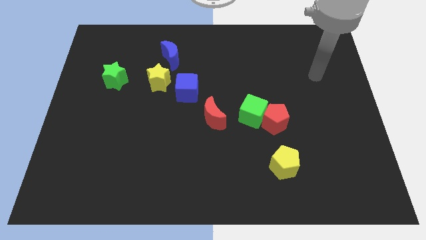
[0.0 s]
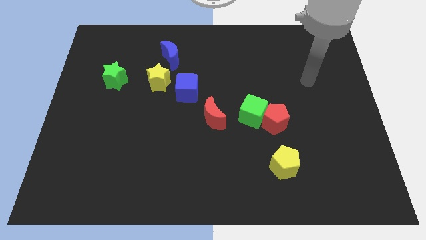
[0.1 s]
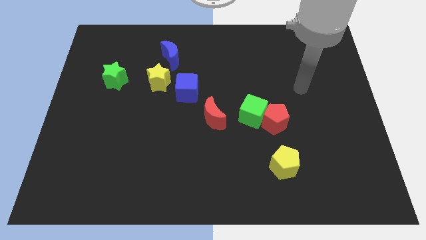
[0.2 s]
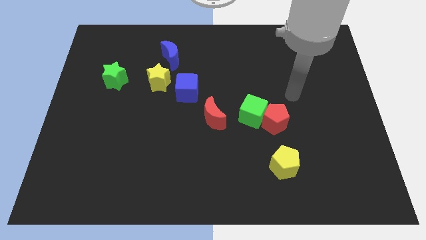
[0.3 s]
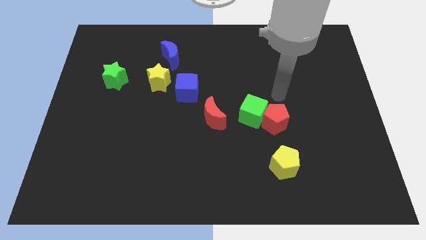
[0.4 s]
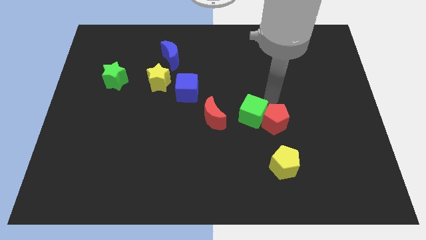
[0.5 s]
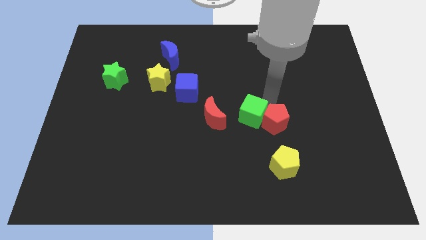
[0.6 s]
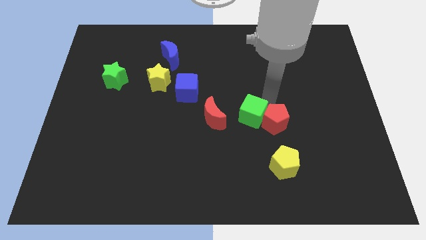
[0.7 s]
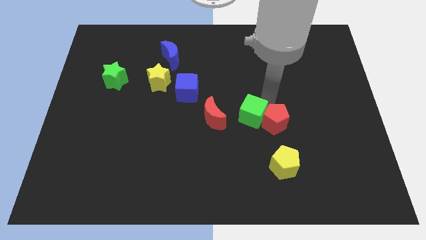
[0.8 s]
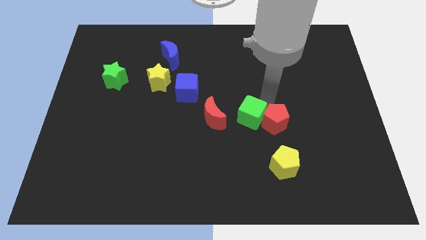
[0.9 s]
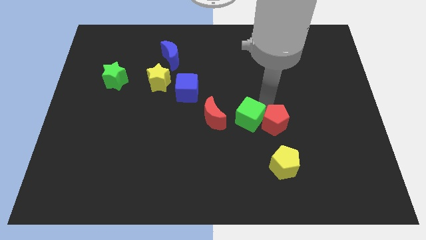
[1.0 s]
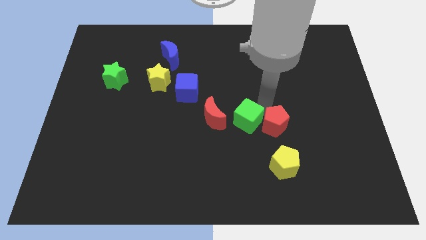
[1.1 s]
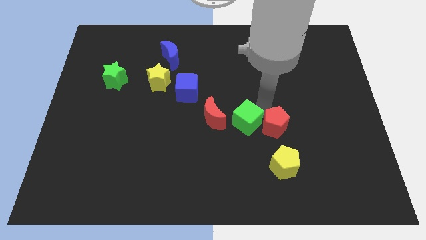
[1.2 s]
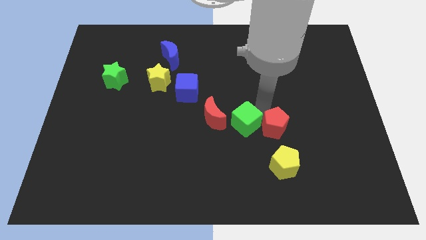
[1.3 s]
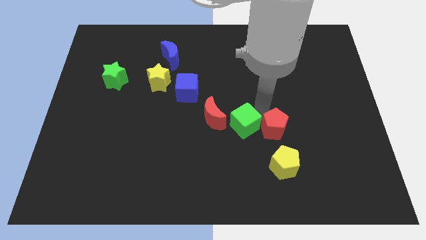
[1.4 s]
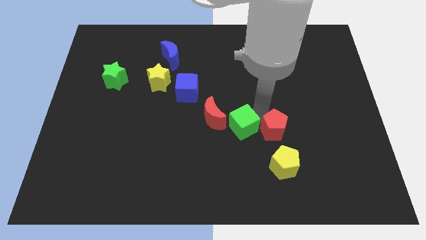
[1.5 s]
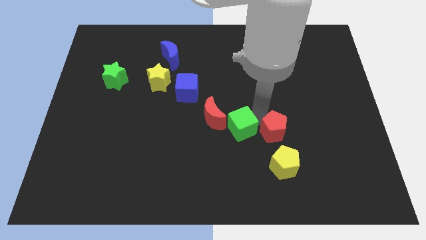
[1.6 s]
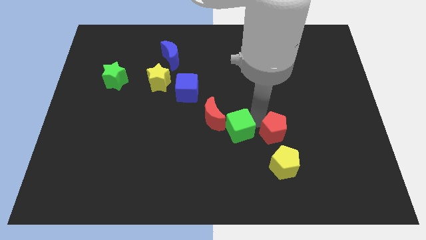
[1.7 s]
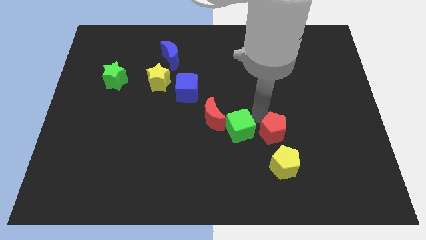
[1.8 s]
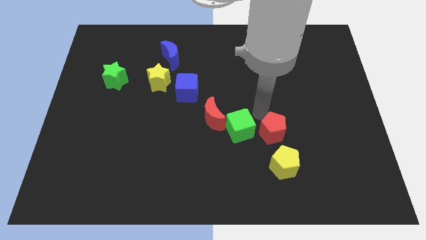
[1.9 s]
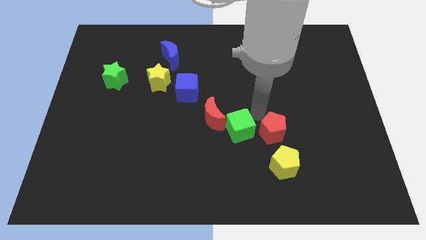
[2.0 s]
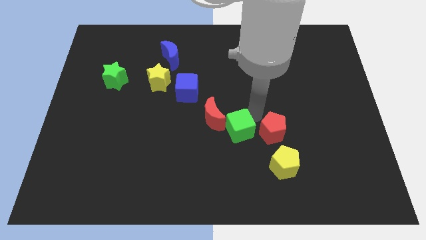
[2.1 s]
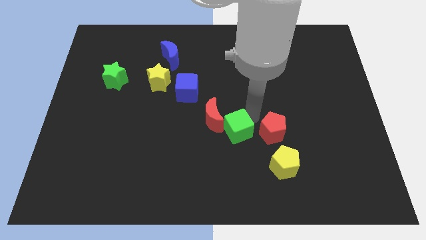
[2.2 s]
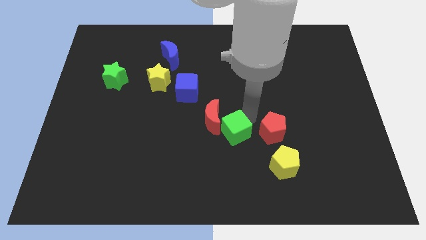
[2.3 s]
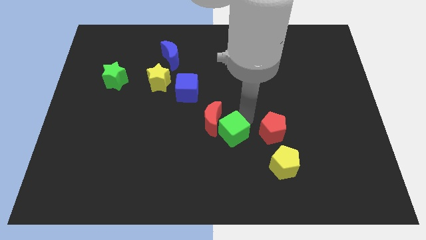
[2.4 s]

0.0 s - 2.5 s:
slide the green cube a bit down and then left

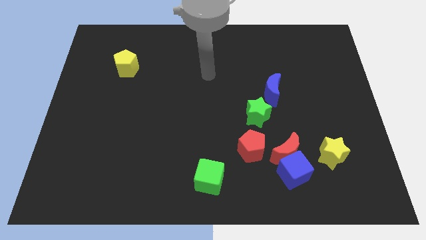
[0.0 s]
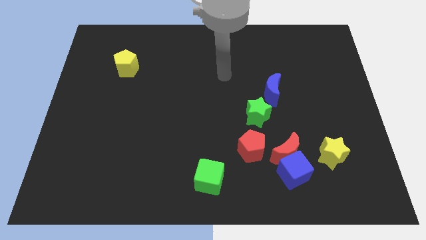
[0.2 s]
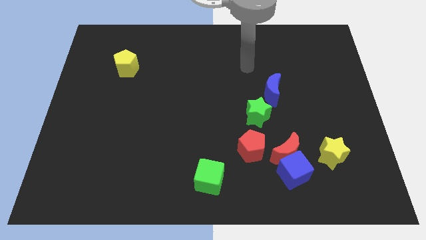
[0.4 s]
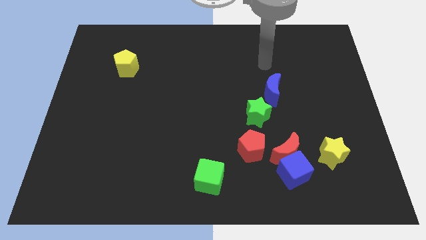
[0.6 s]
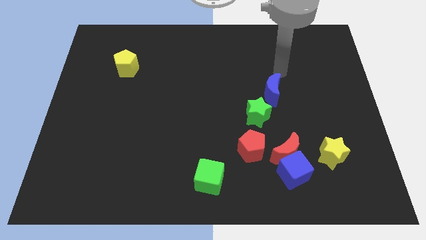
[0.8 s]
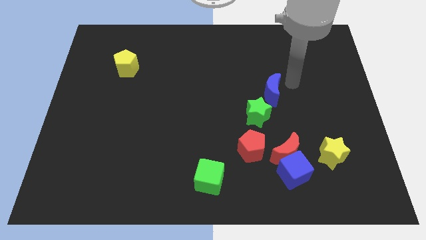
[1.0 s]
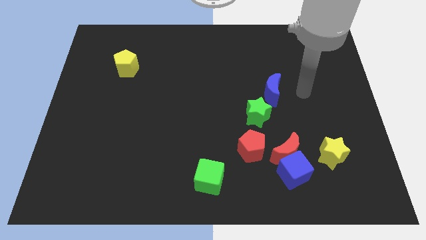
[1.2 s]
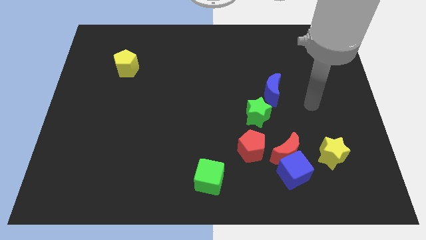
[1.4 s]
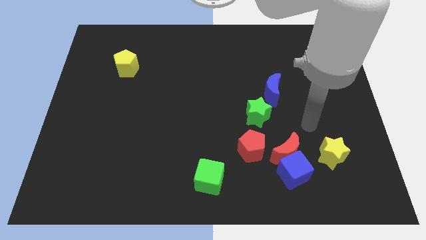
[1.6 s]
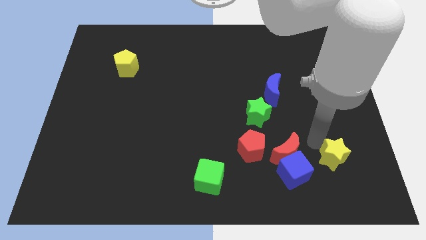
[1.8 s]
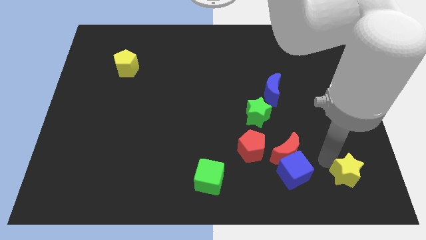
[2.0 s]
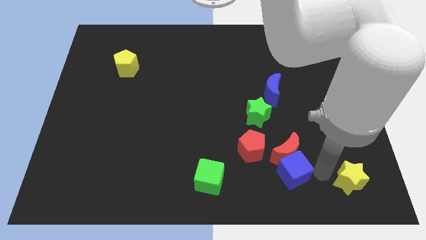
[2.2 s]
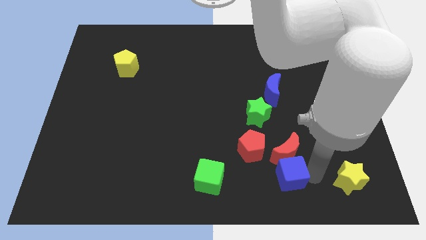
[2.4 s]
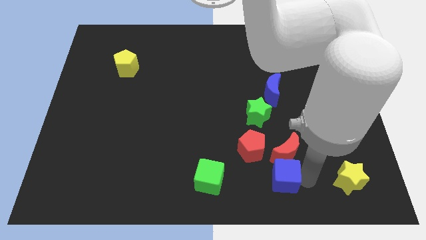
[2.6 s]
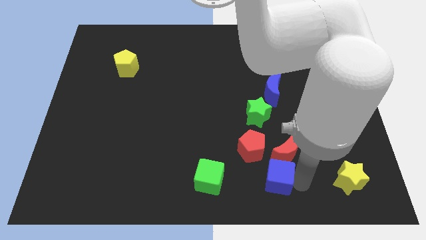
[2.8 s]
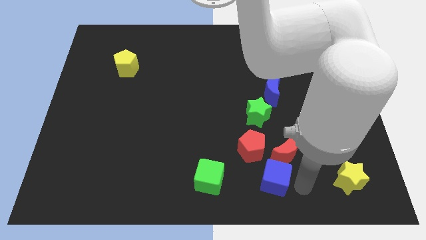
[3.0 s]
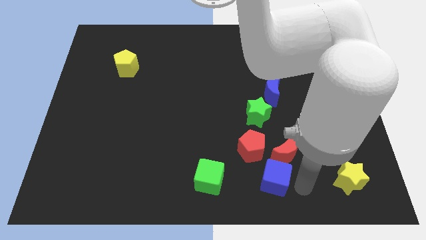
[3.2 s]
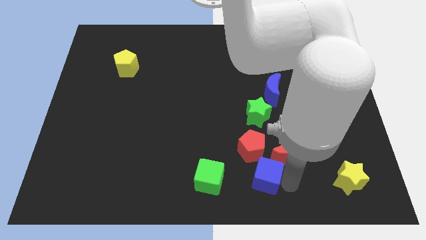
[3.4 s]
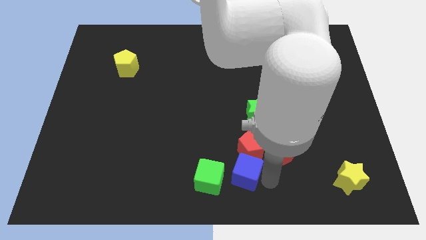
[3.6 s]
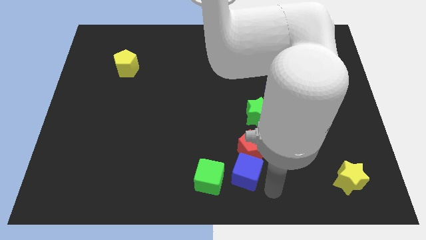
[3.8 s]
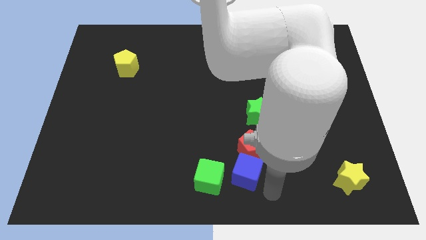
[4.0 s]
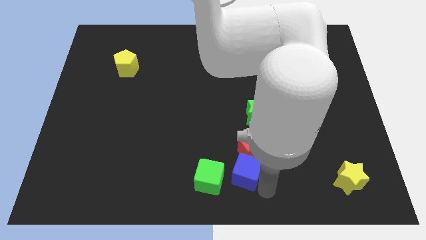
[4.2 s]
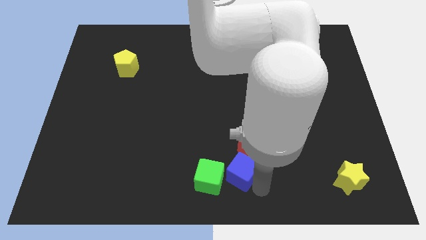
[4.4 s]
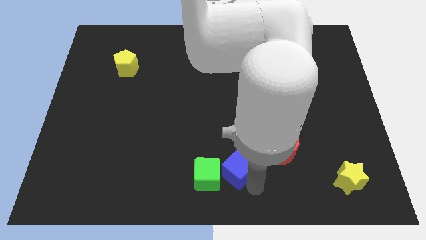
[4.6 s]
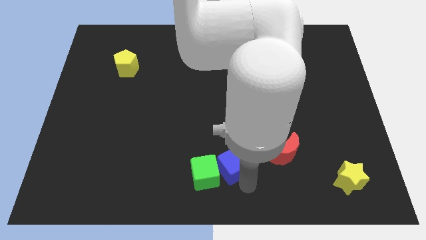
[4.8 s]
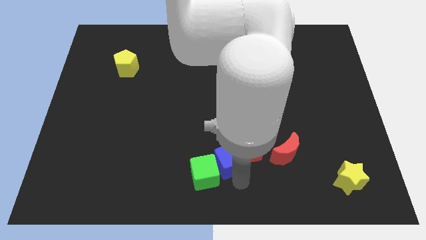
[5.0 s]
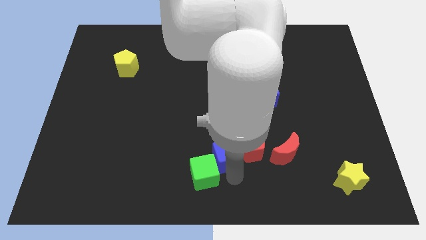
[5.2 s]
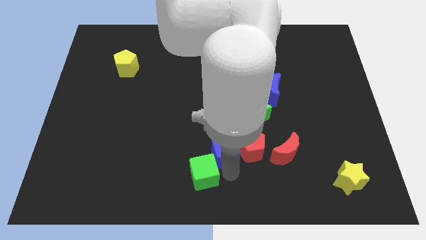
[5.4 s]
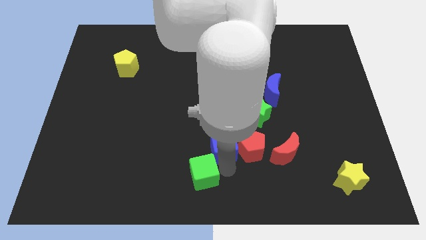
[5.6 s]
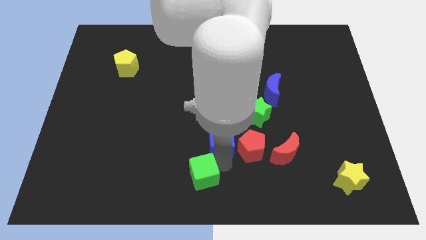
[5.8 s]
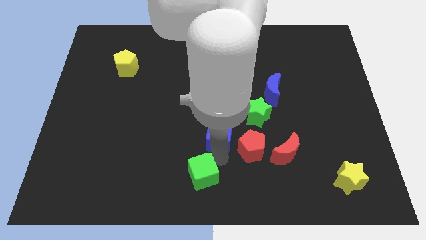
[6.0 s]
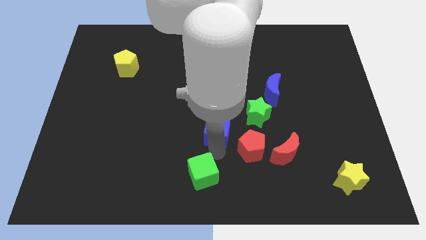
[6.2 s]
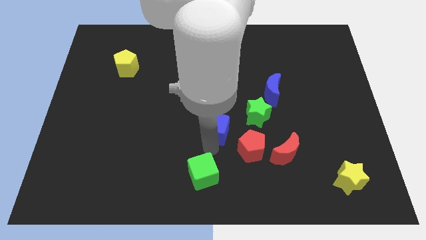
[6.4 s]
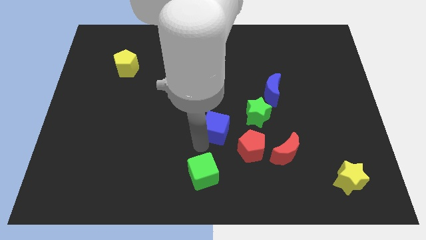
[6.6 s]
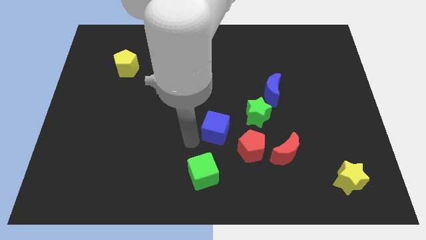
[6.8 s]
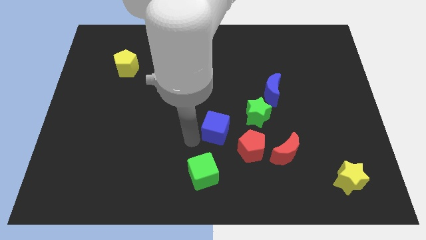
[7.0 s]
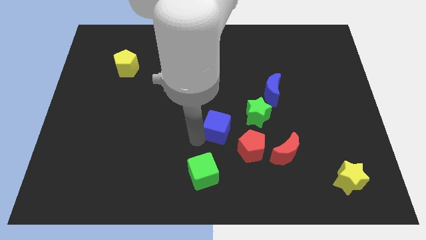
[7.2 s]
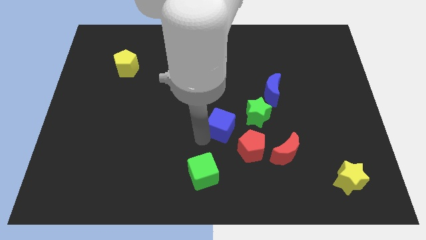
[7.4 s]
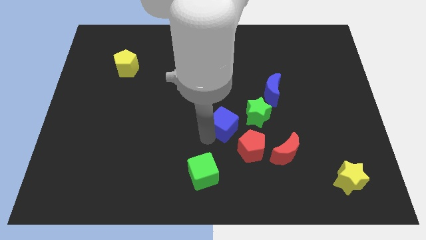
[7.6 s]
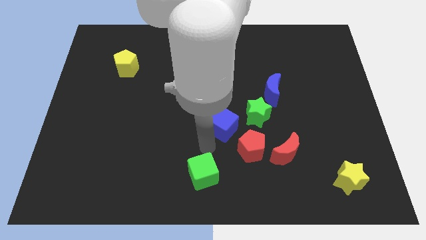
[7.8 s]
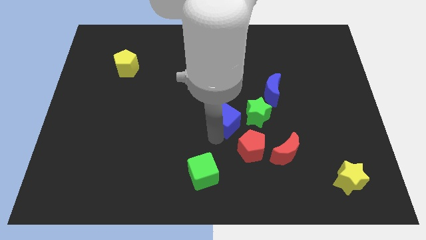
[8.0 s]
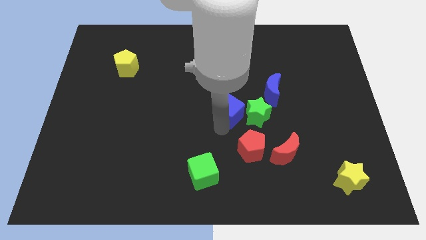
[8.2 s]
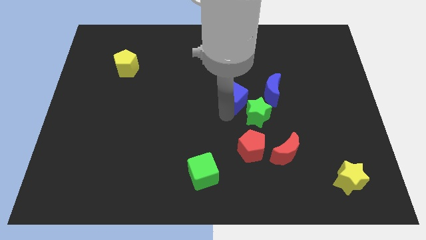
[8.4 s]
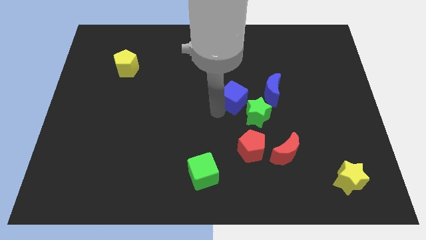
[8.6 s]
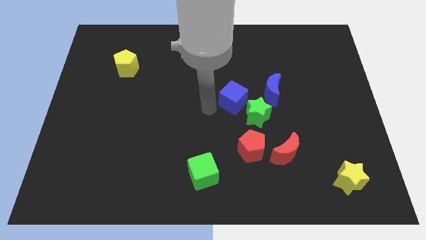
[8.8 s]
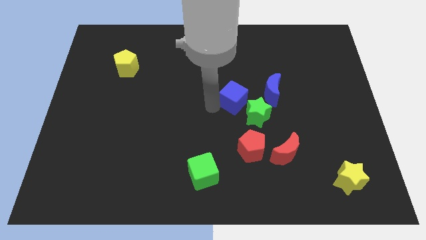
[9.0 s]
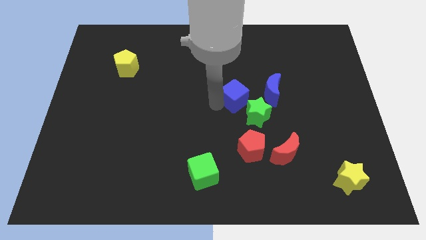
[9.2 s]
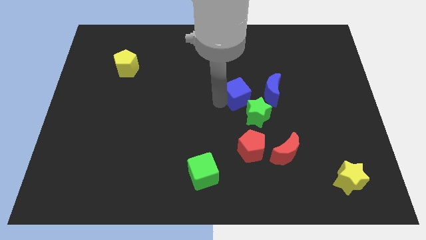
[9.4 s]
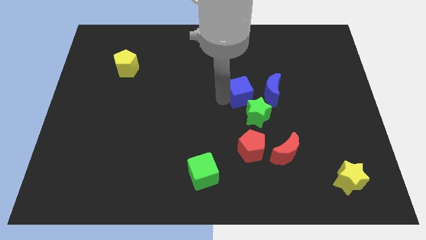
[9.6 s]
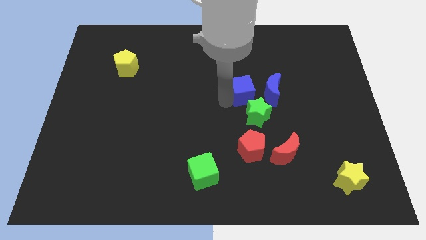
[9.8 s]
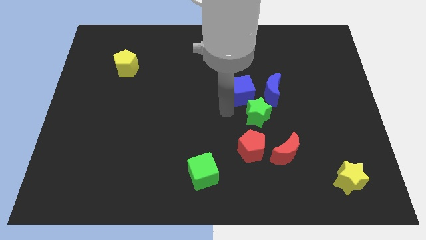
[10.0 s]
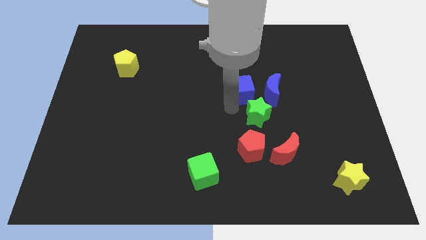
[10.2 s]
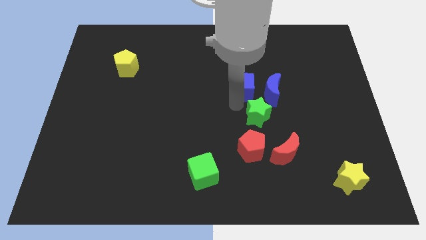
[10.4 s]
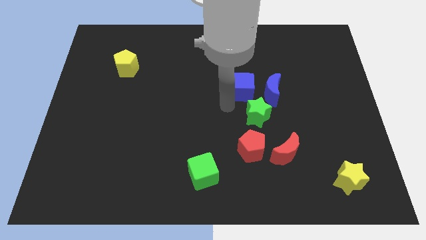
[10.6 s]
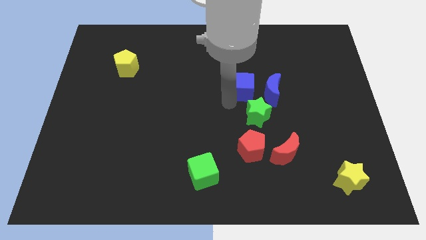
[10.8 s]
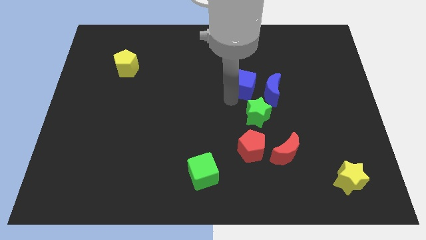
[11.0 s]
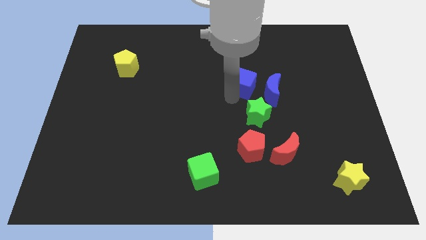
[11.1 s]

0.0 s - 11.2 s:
slide the blue cube upwards

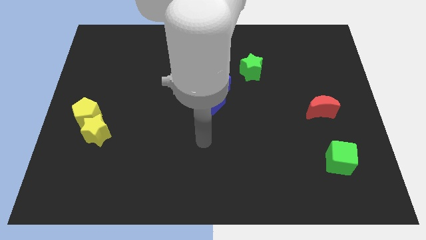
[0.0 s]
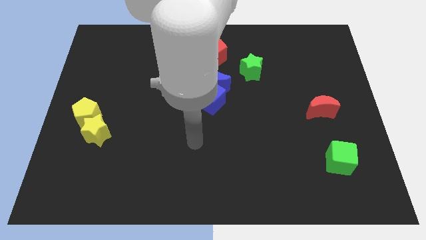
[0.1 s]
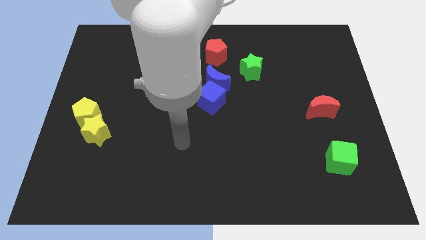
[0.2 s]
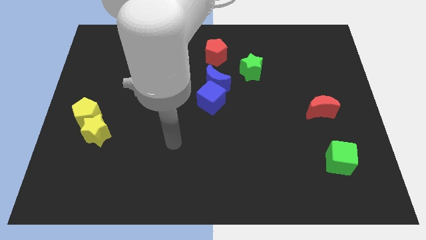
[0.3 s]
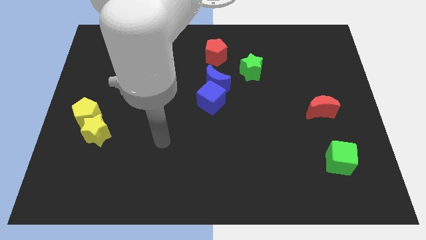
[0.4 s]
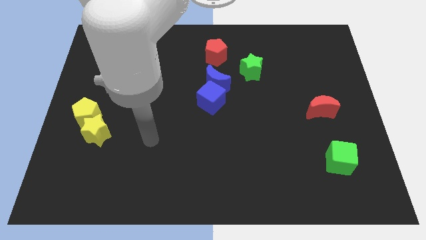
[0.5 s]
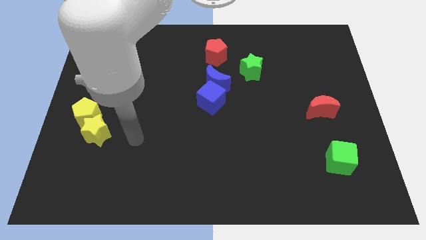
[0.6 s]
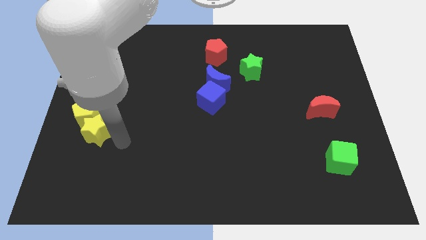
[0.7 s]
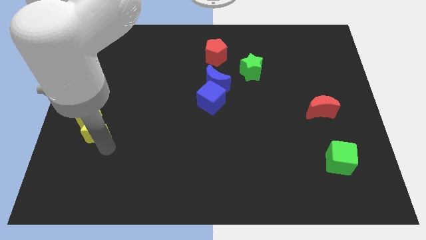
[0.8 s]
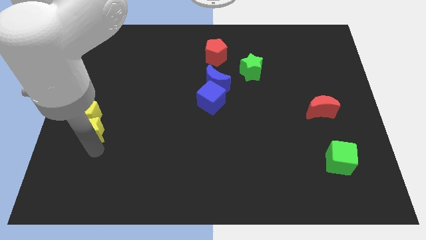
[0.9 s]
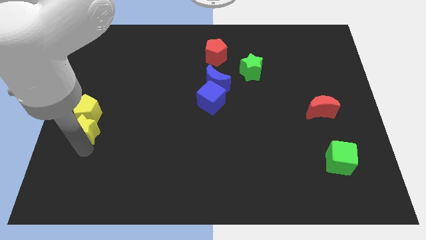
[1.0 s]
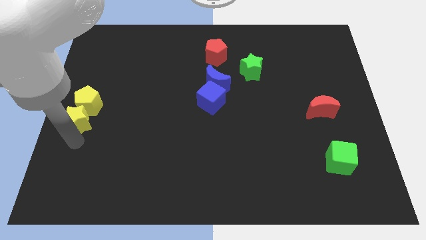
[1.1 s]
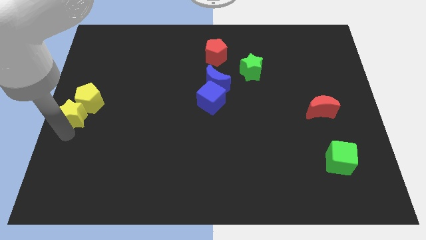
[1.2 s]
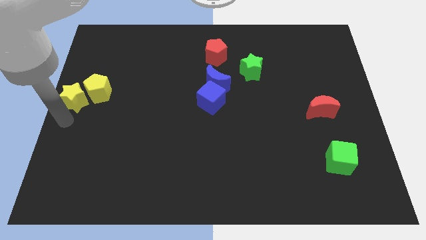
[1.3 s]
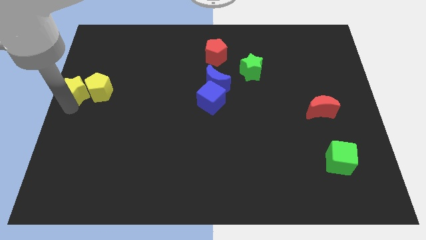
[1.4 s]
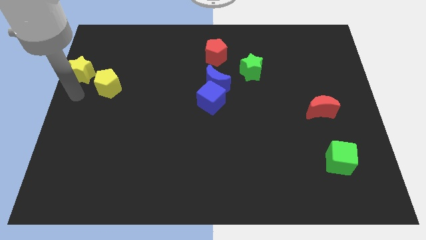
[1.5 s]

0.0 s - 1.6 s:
slide the yellow pentagon up and right diagonally somewhat
